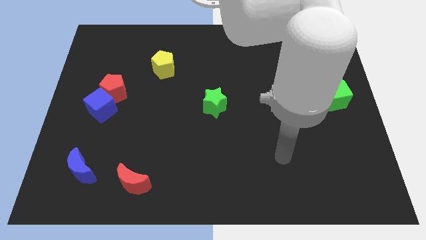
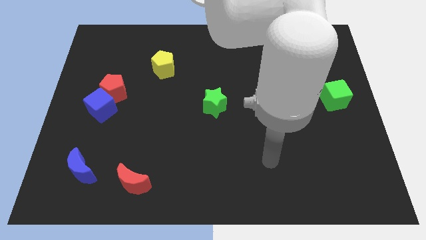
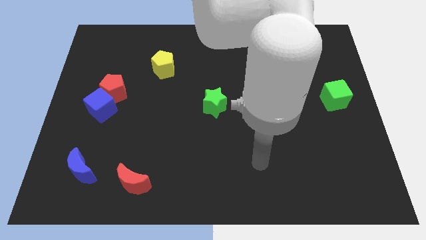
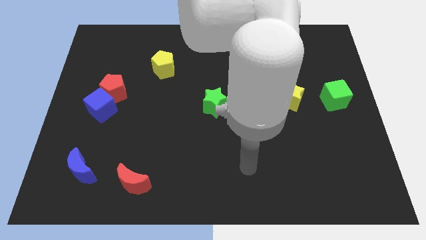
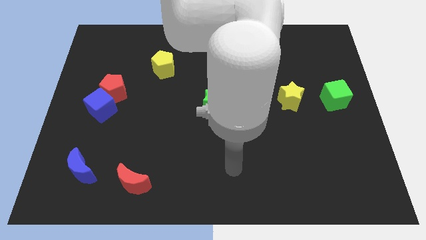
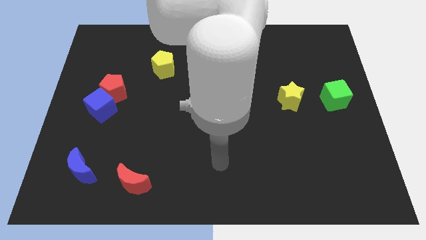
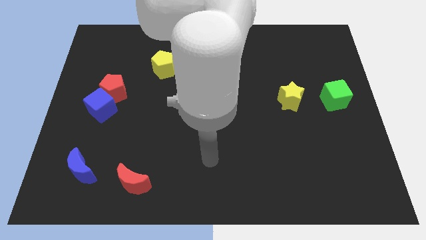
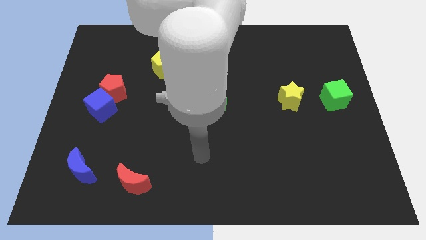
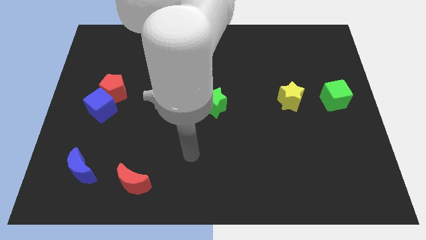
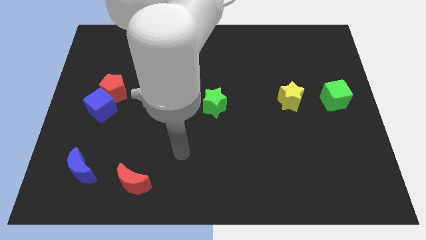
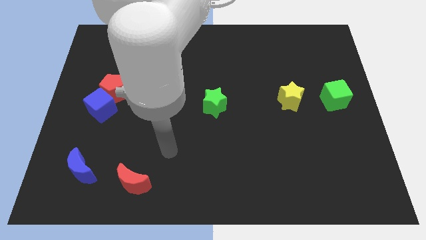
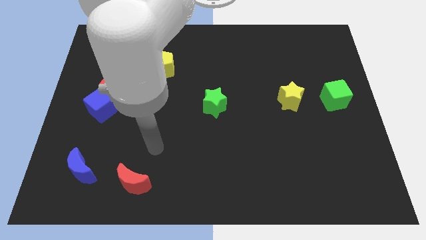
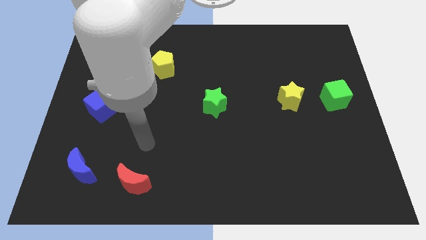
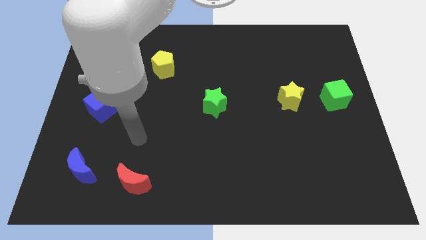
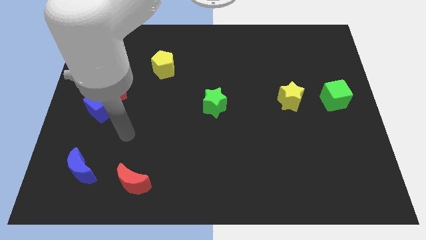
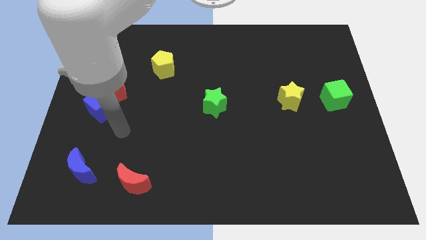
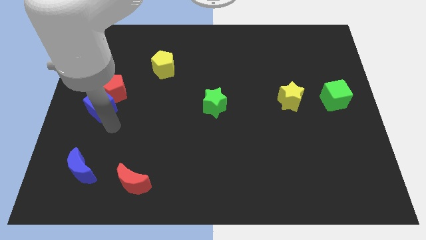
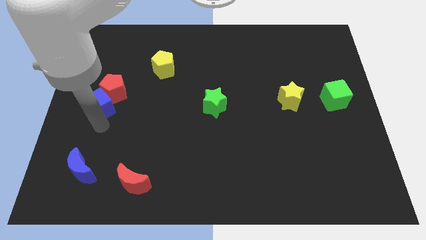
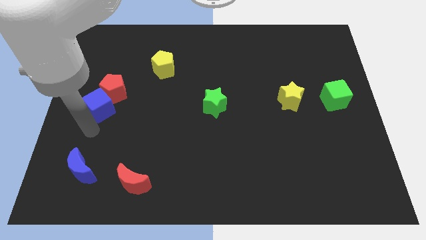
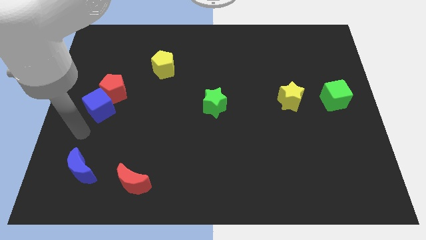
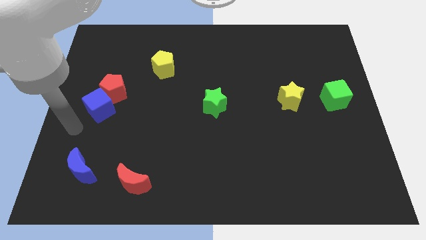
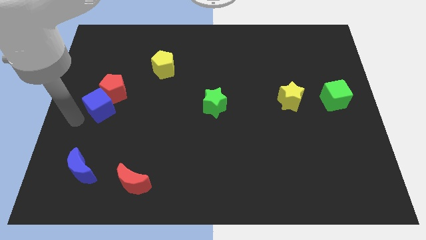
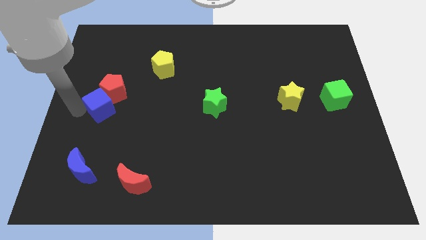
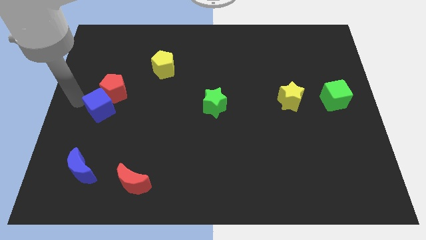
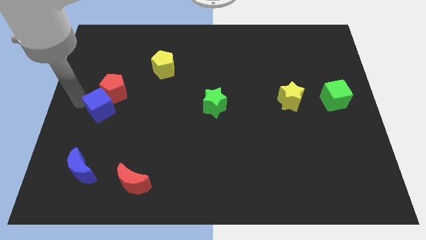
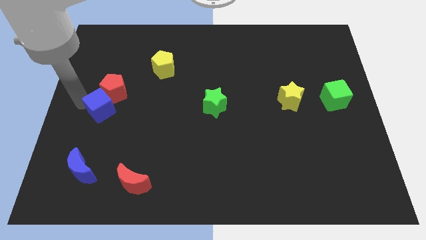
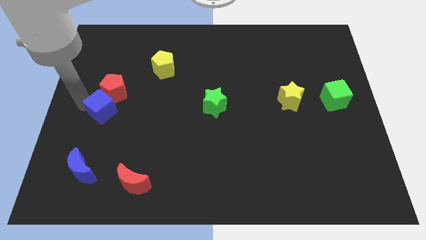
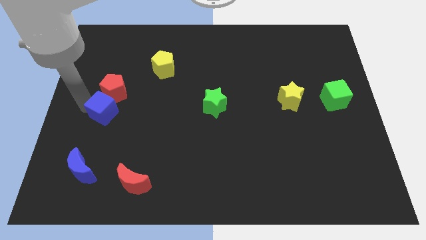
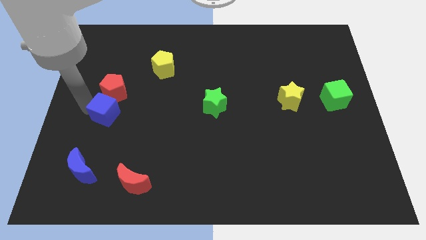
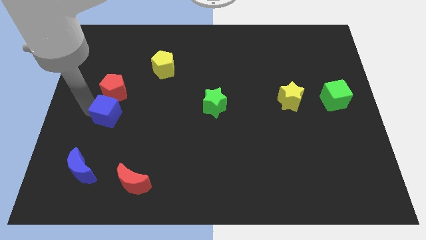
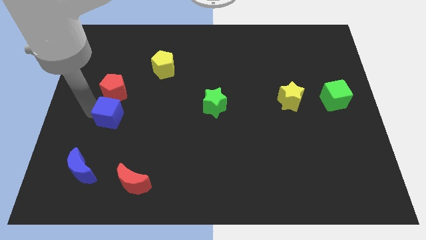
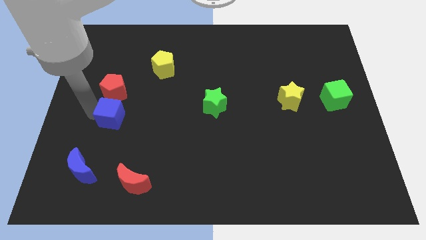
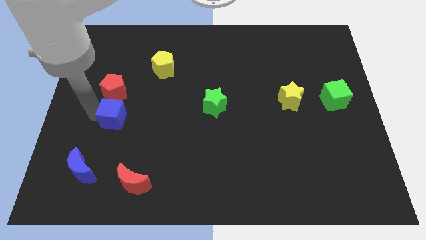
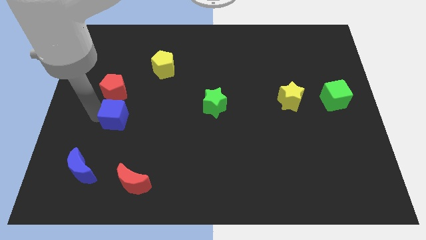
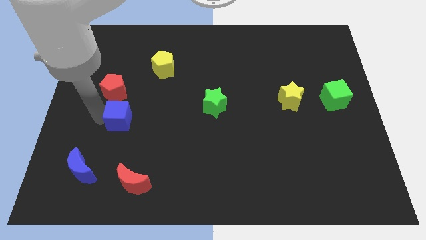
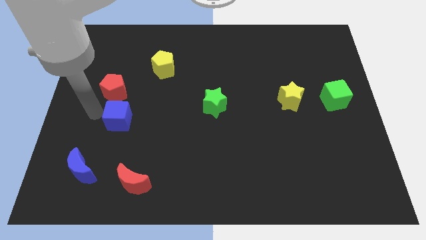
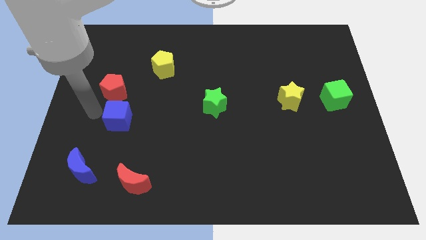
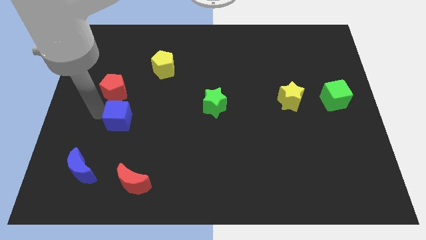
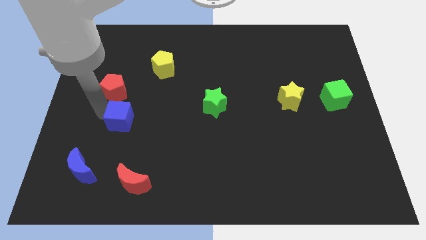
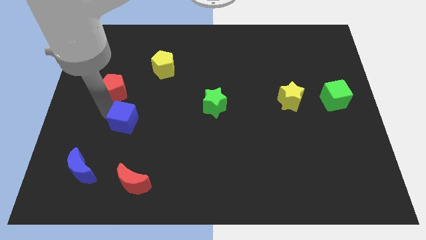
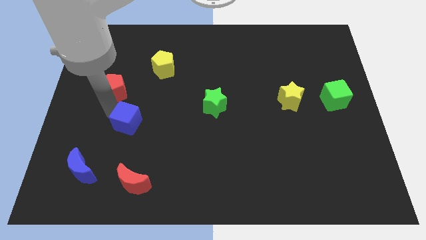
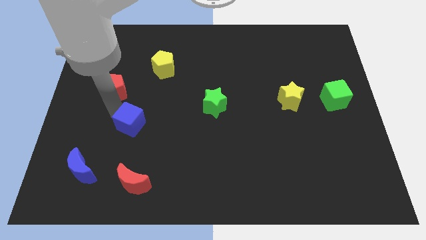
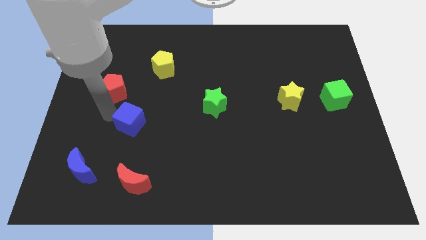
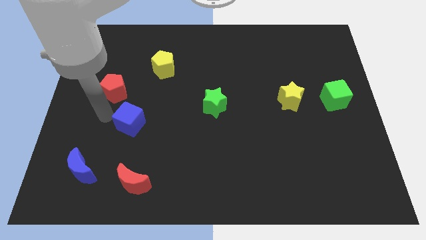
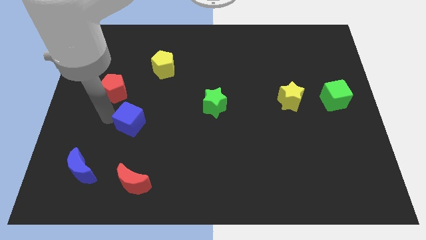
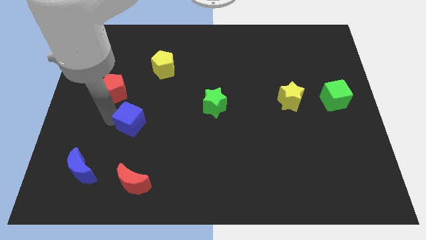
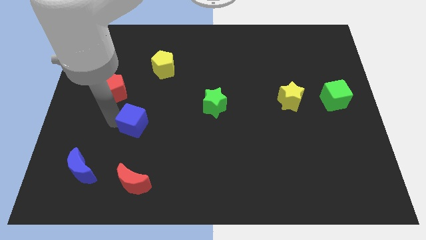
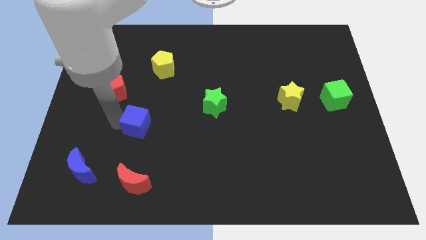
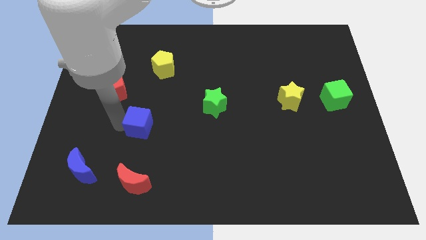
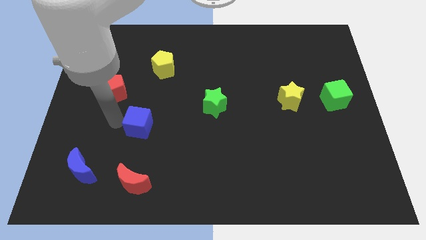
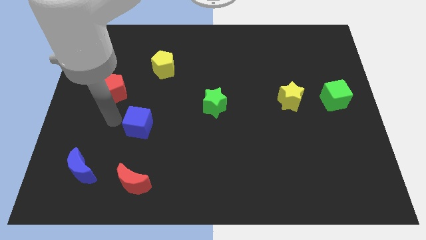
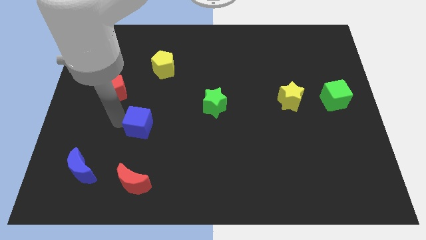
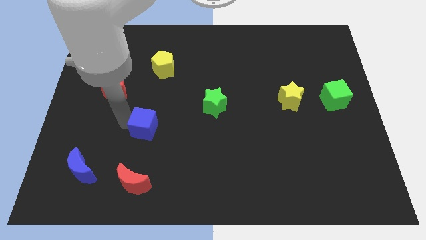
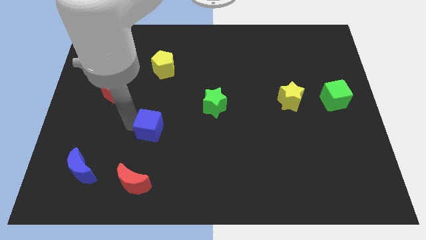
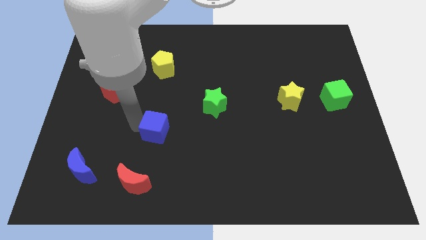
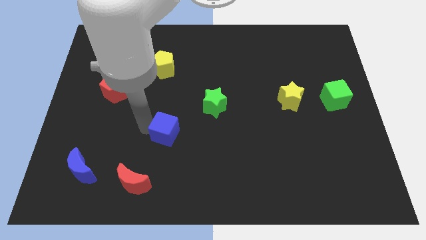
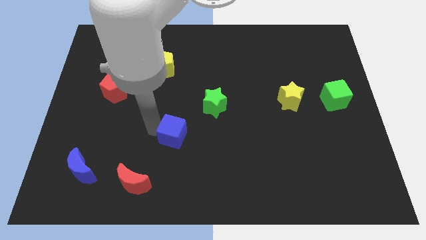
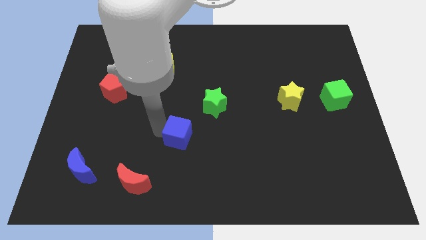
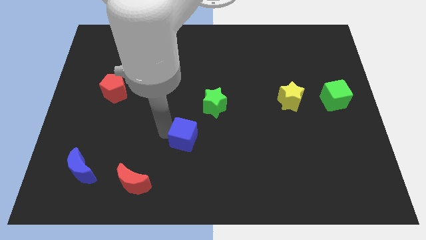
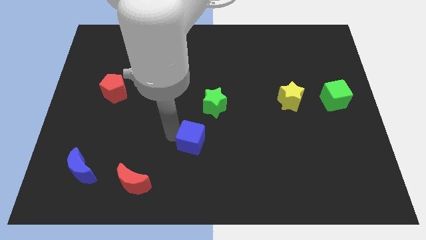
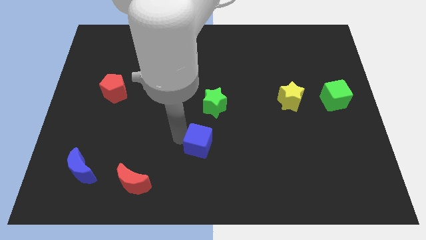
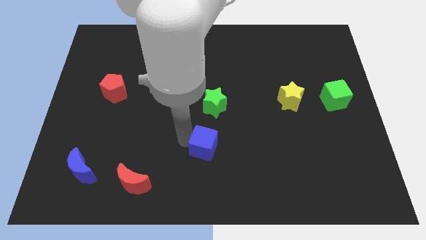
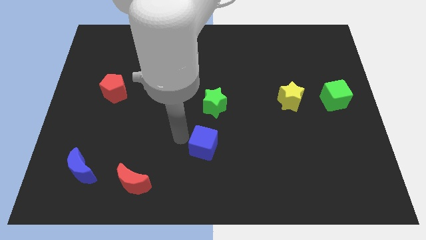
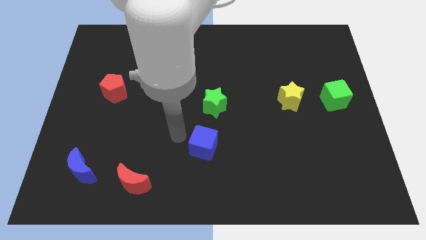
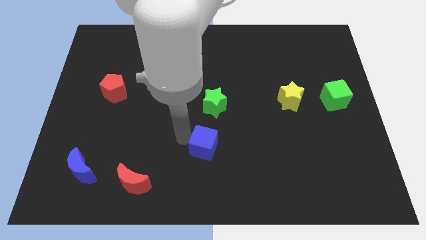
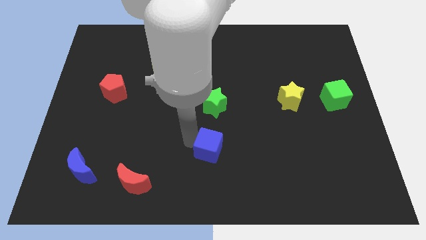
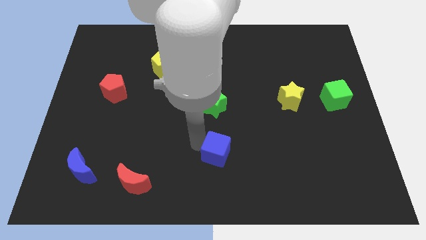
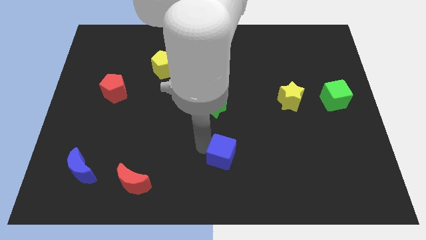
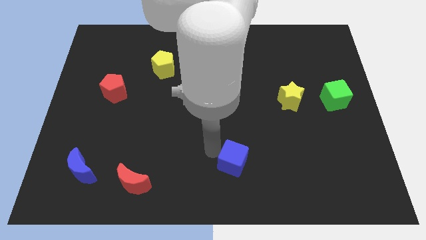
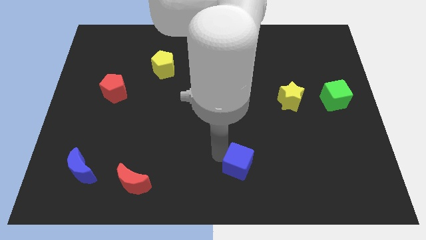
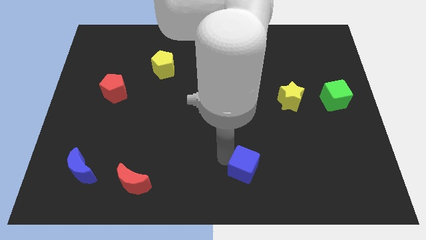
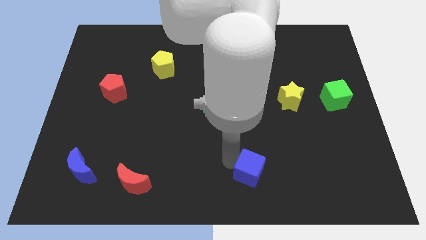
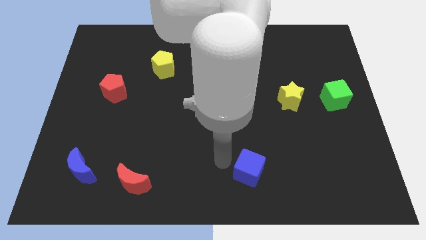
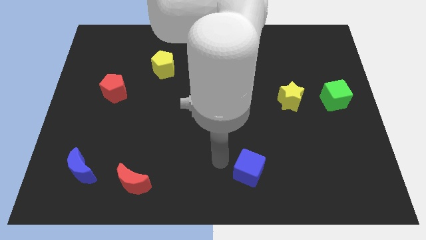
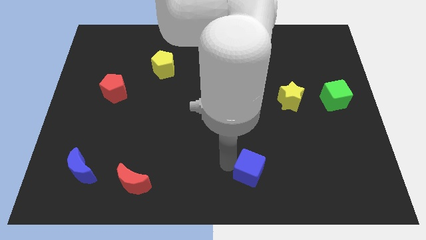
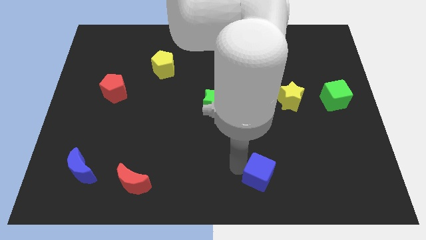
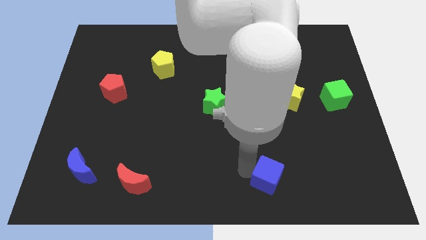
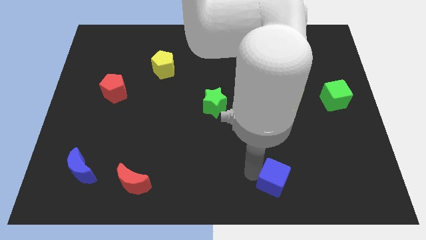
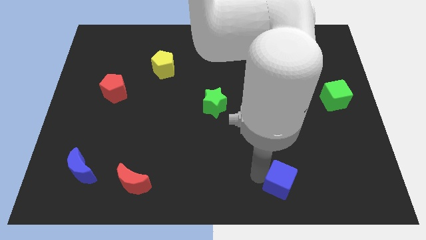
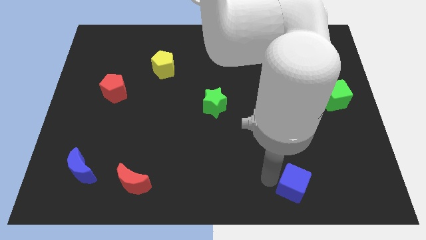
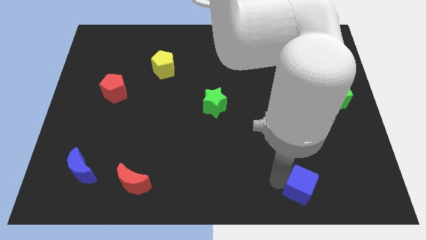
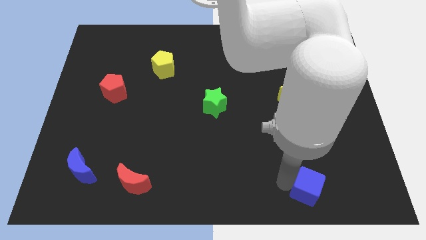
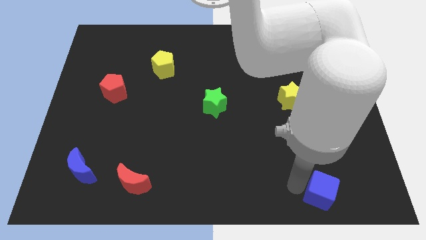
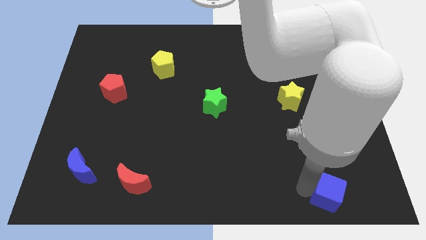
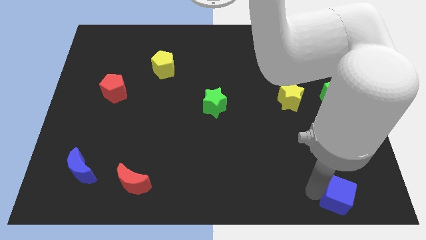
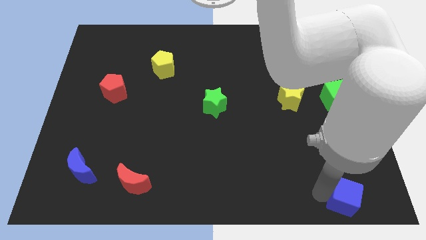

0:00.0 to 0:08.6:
move the blue cube to the bottom right of the board
